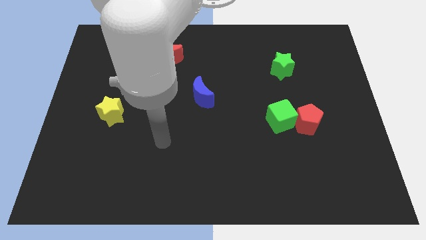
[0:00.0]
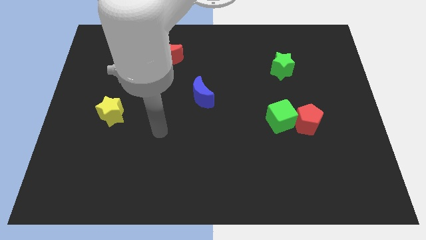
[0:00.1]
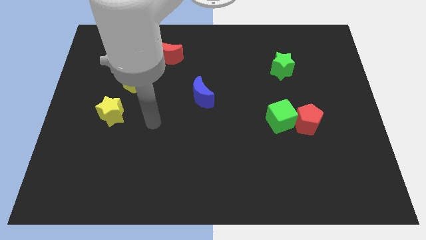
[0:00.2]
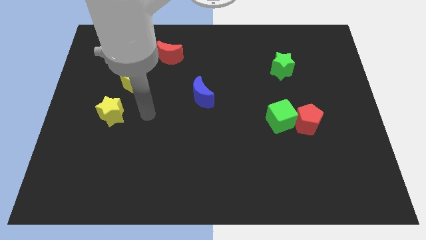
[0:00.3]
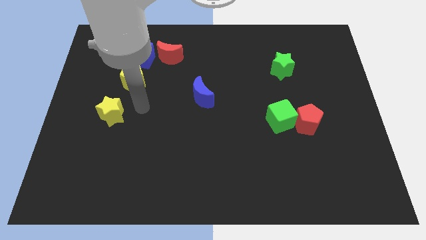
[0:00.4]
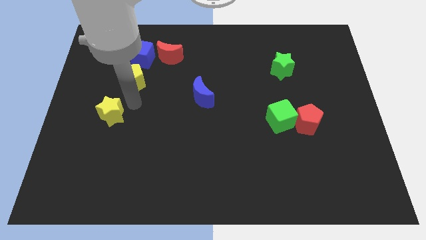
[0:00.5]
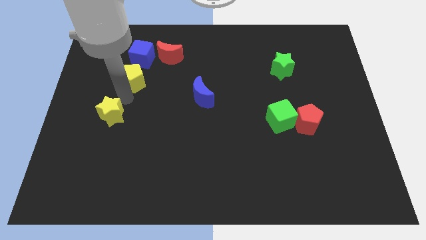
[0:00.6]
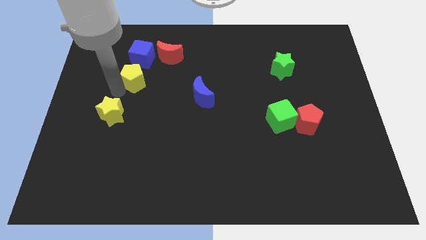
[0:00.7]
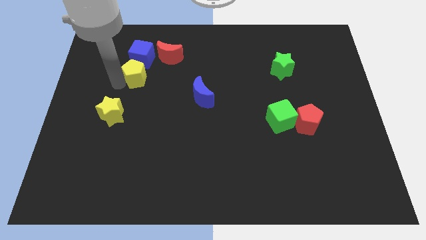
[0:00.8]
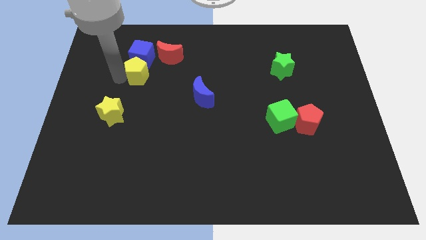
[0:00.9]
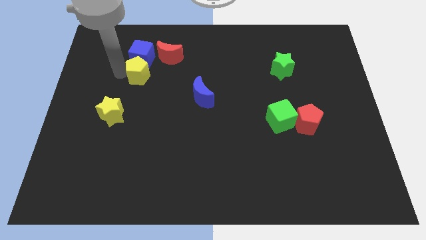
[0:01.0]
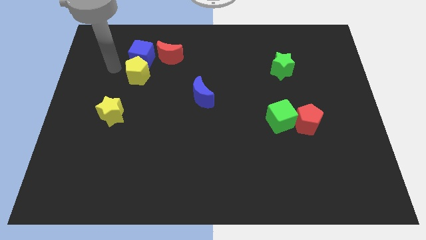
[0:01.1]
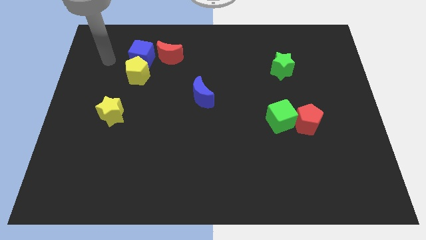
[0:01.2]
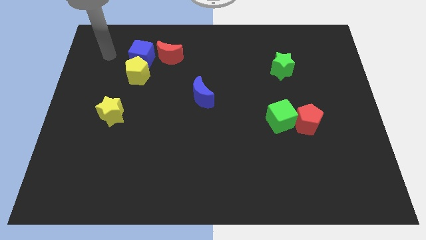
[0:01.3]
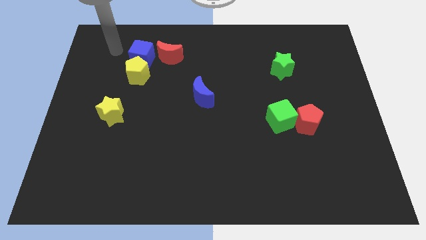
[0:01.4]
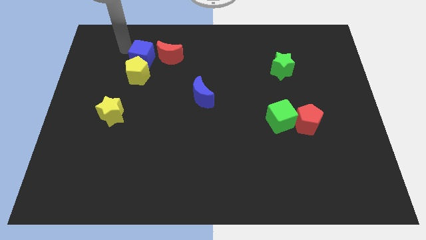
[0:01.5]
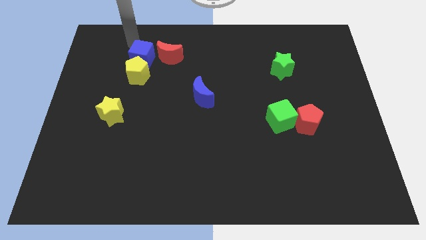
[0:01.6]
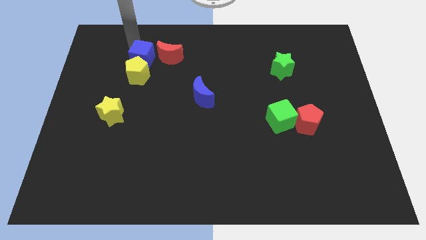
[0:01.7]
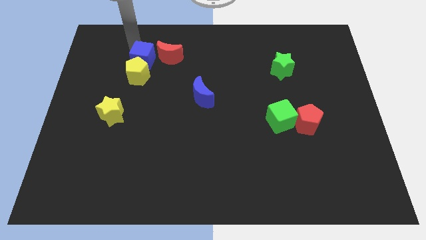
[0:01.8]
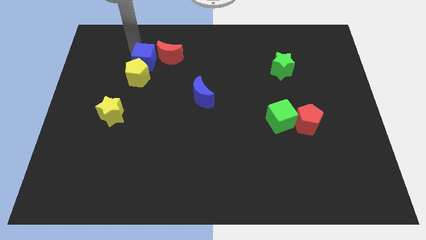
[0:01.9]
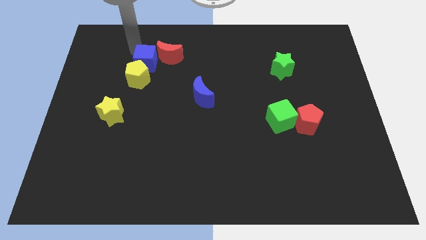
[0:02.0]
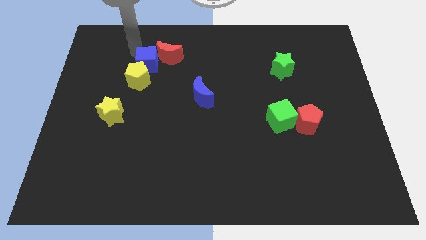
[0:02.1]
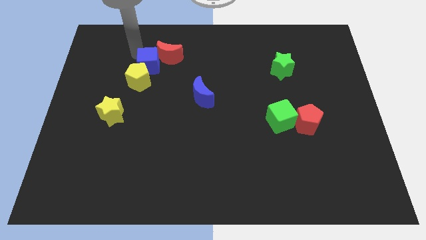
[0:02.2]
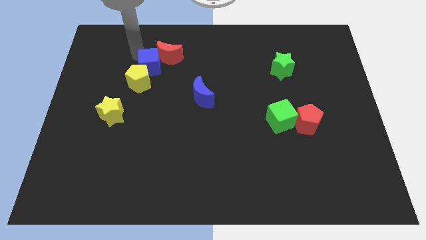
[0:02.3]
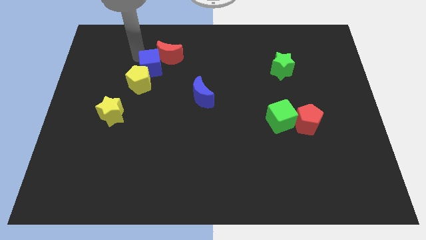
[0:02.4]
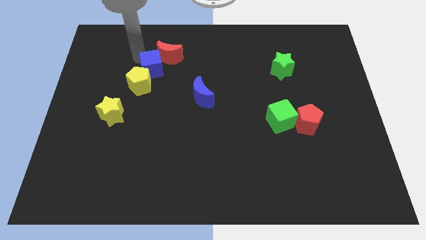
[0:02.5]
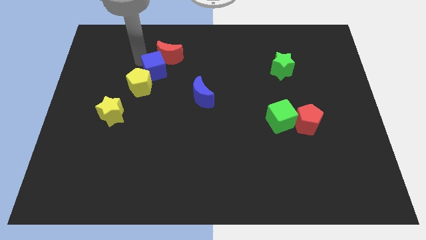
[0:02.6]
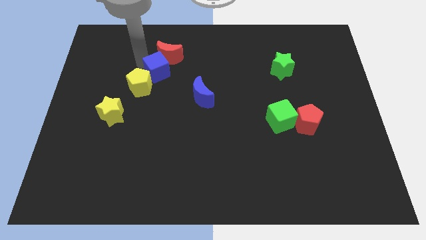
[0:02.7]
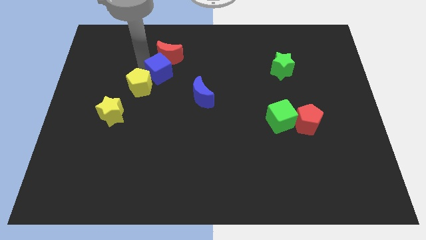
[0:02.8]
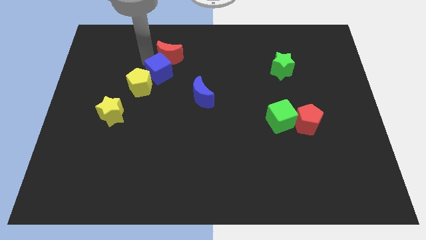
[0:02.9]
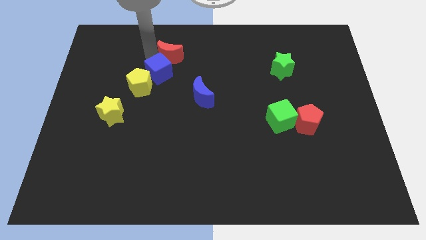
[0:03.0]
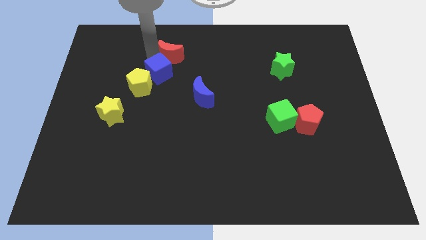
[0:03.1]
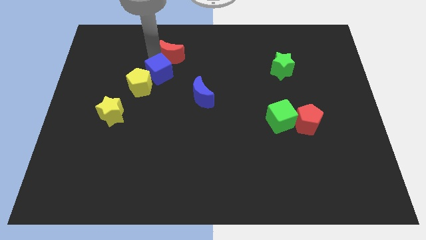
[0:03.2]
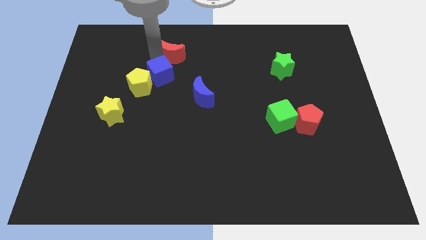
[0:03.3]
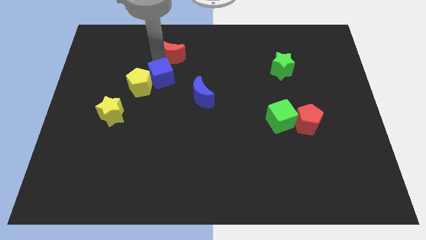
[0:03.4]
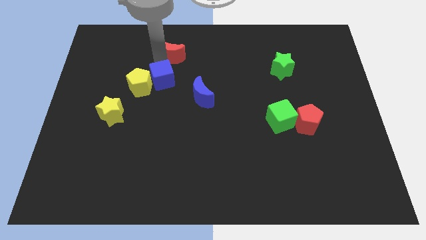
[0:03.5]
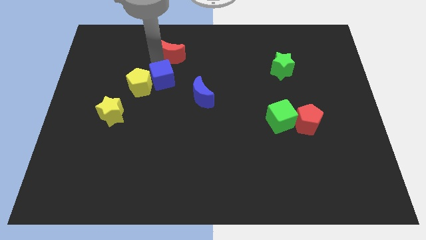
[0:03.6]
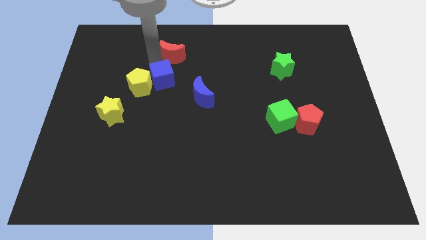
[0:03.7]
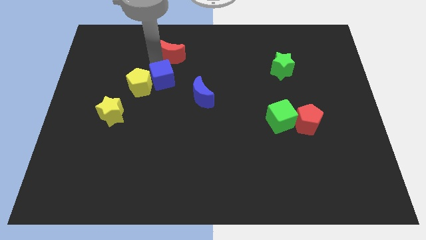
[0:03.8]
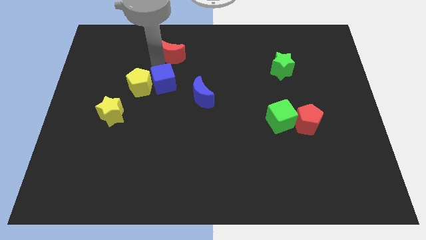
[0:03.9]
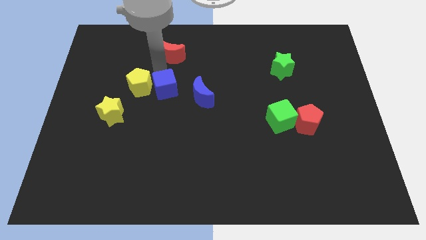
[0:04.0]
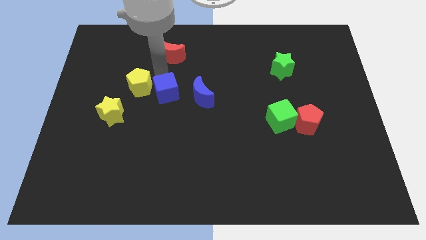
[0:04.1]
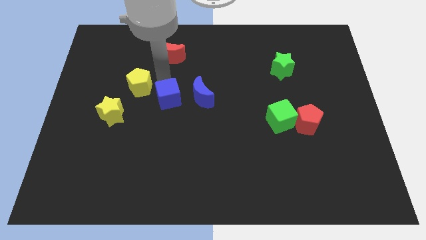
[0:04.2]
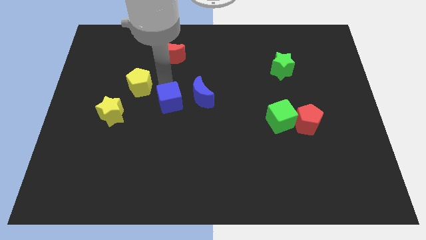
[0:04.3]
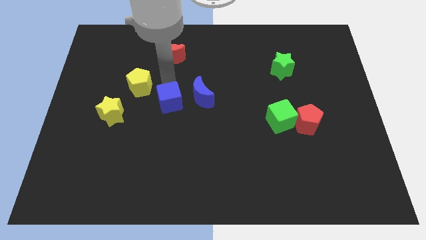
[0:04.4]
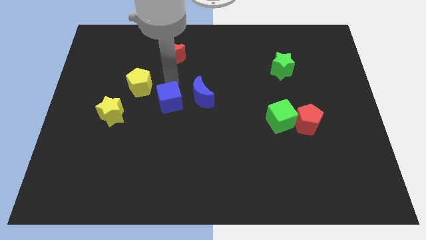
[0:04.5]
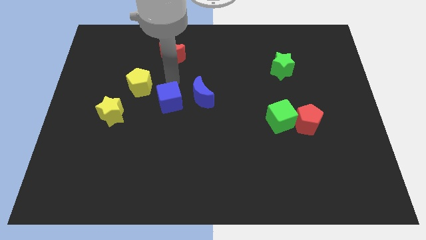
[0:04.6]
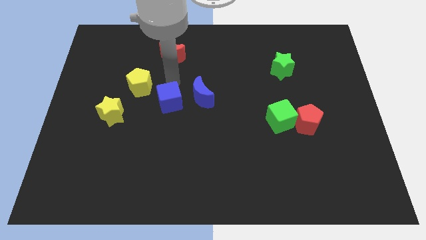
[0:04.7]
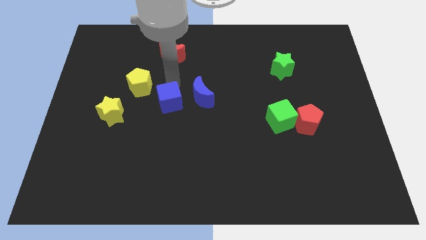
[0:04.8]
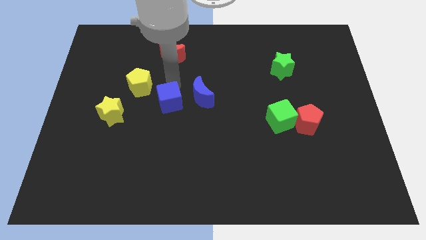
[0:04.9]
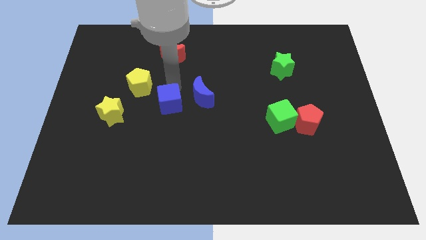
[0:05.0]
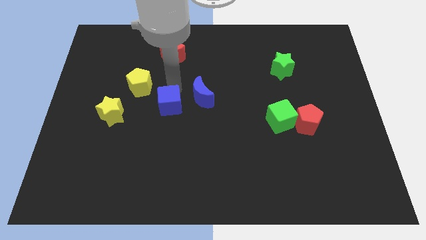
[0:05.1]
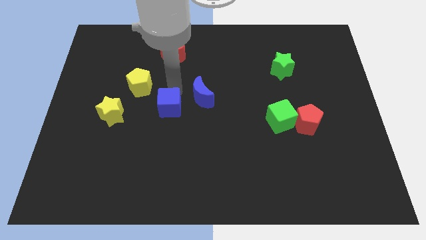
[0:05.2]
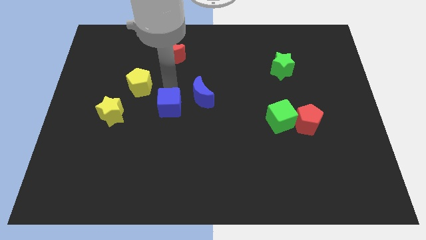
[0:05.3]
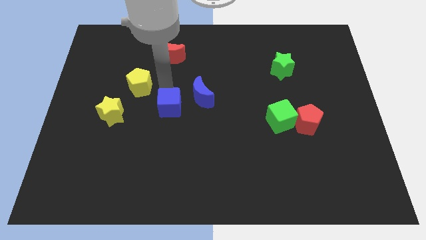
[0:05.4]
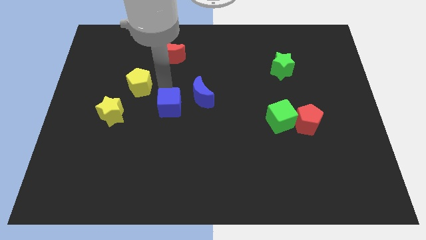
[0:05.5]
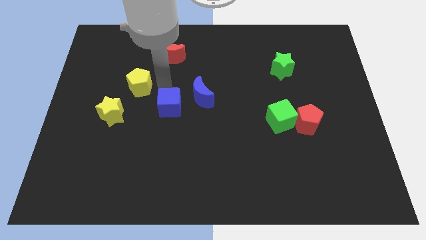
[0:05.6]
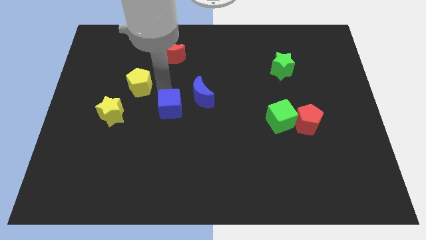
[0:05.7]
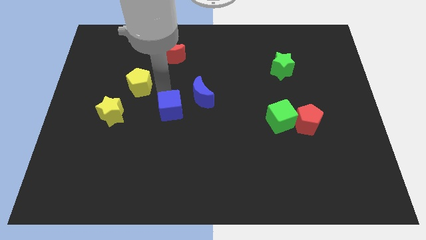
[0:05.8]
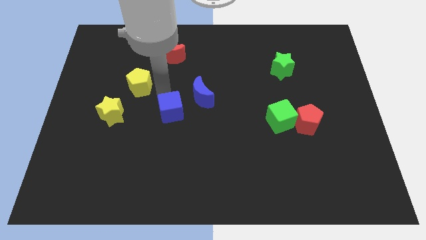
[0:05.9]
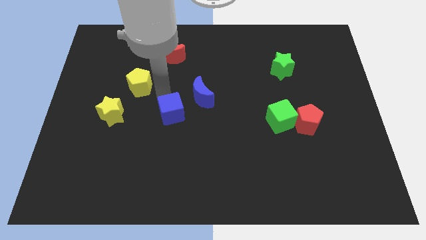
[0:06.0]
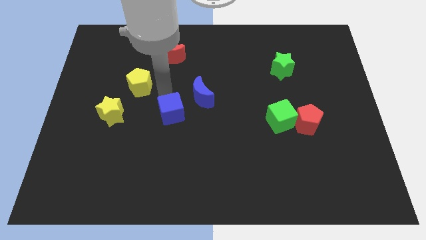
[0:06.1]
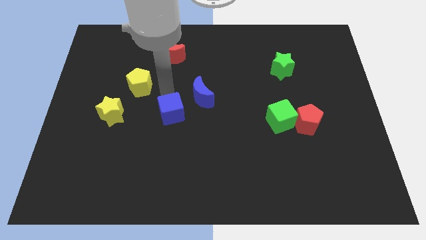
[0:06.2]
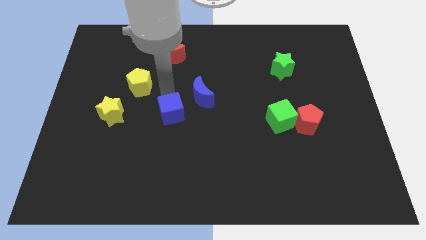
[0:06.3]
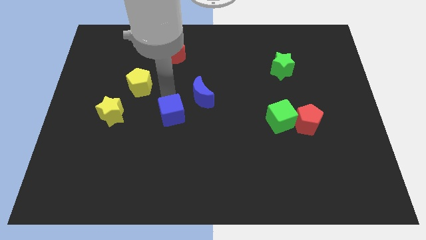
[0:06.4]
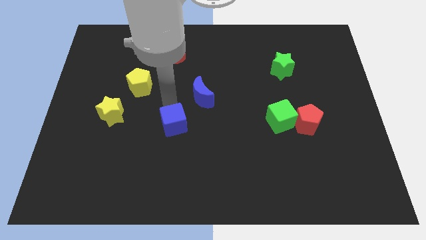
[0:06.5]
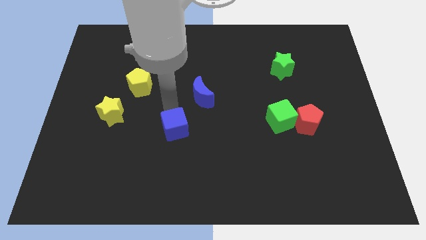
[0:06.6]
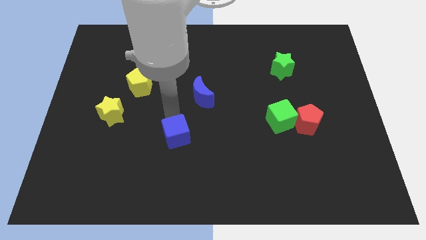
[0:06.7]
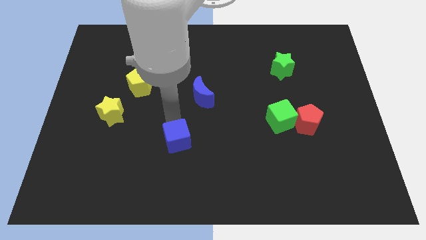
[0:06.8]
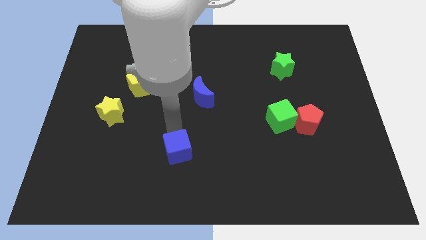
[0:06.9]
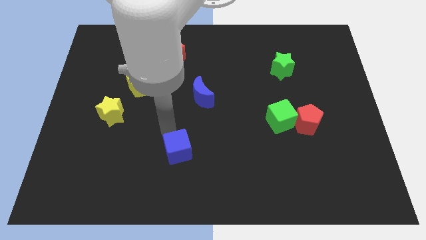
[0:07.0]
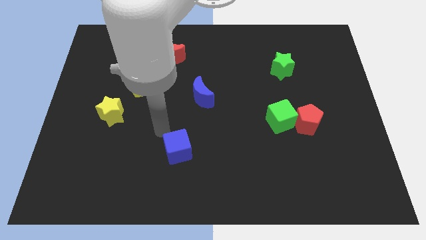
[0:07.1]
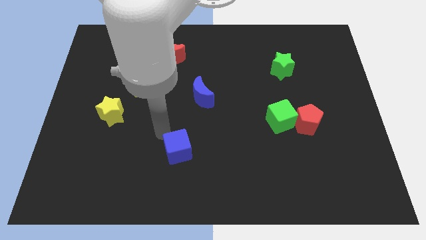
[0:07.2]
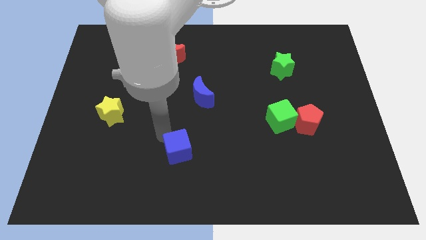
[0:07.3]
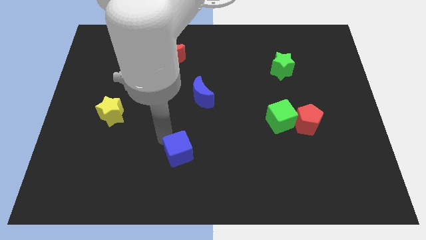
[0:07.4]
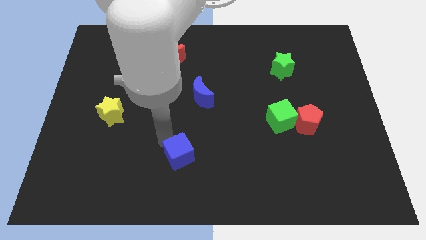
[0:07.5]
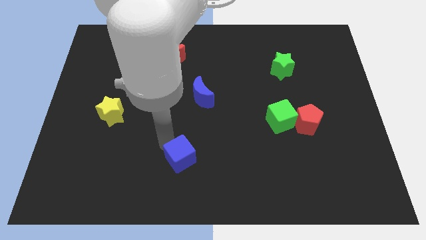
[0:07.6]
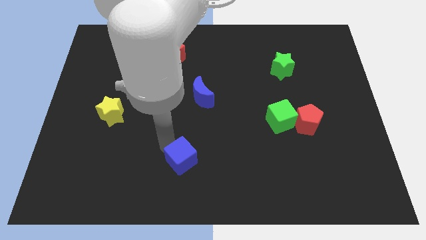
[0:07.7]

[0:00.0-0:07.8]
push the blue cube to the bottom side
